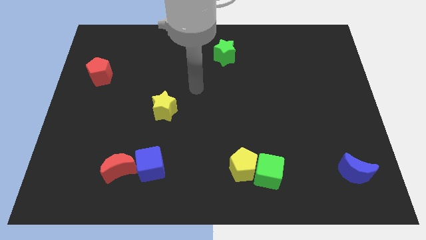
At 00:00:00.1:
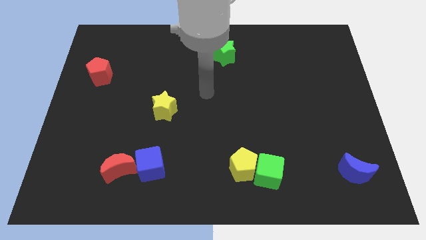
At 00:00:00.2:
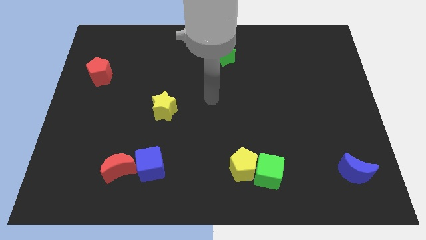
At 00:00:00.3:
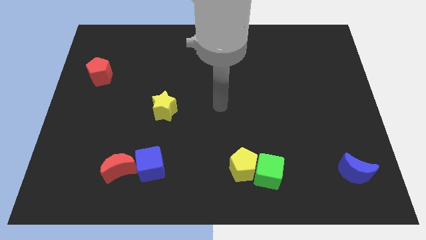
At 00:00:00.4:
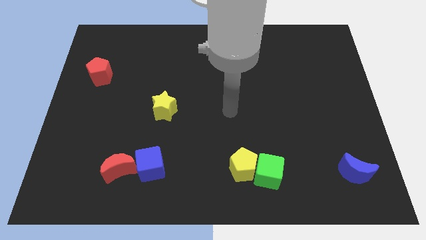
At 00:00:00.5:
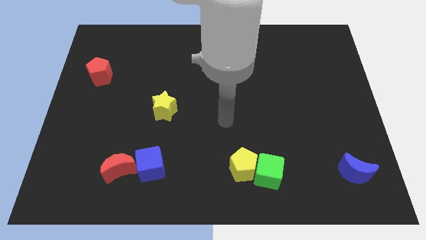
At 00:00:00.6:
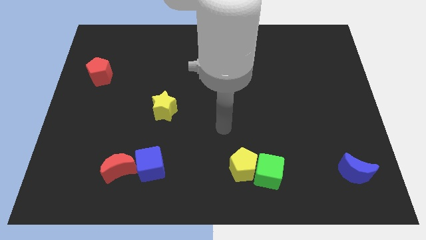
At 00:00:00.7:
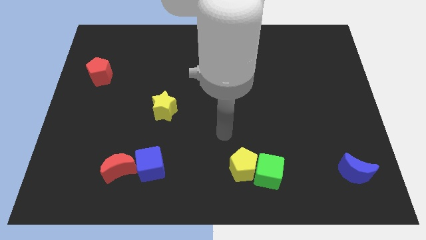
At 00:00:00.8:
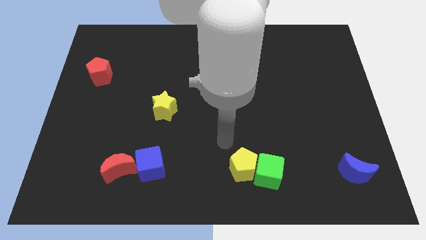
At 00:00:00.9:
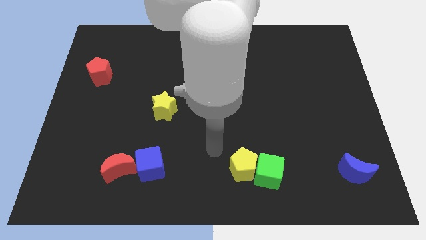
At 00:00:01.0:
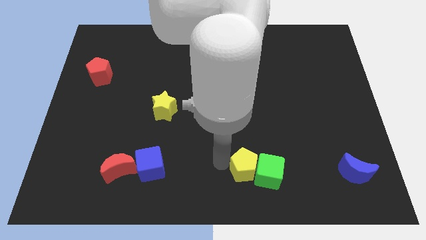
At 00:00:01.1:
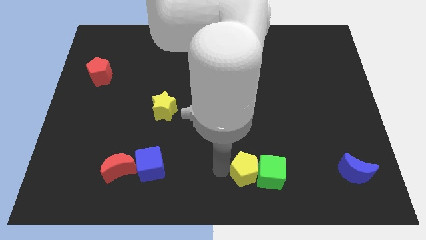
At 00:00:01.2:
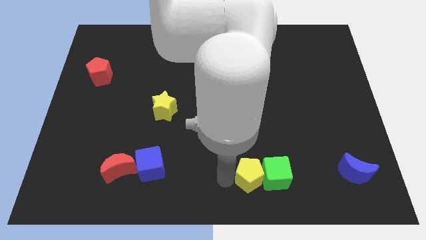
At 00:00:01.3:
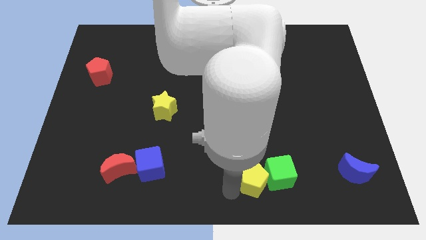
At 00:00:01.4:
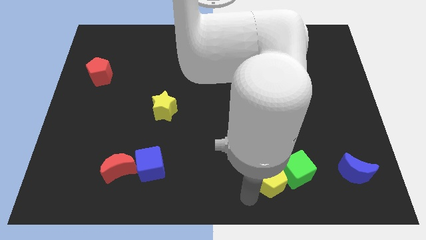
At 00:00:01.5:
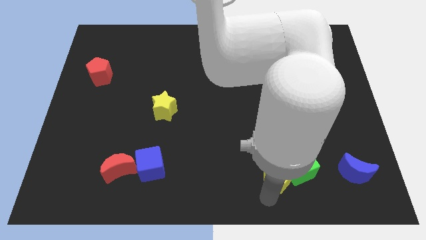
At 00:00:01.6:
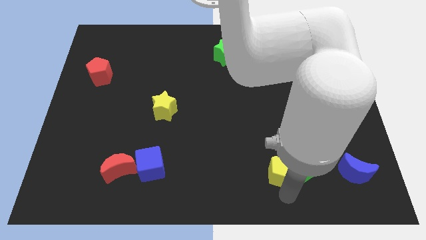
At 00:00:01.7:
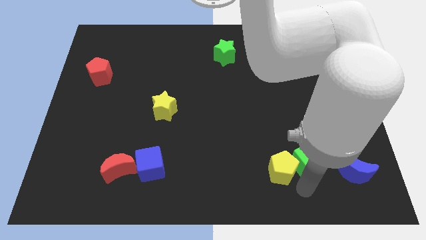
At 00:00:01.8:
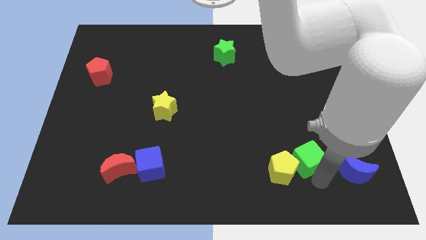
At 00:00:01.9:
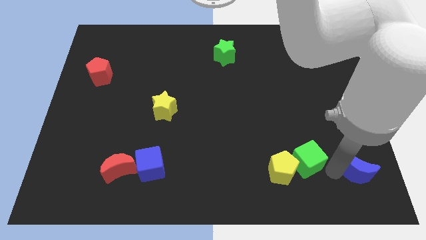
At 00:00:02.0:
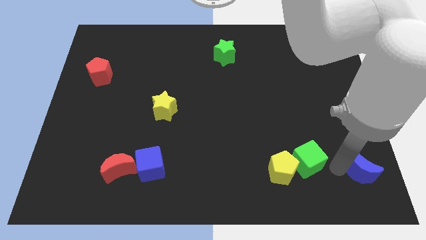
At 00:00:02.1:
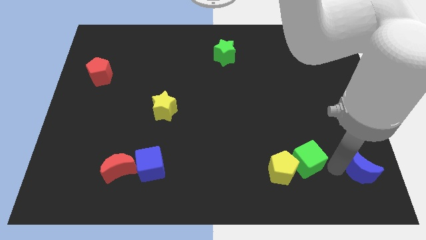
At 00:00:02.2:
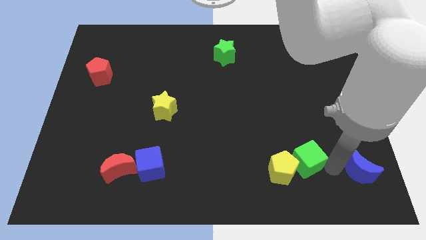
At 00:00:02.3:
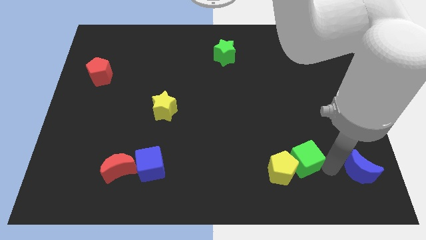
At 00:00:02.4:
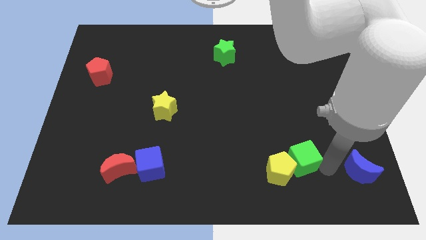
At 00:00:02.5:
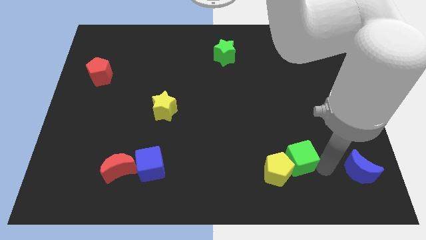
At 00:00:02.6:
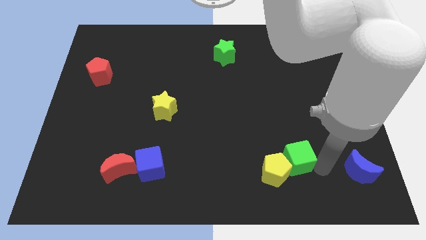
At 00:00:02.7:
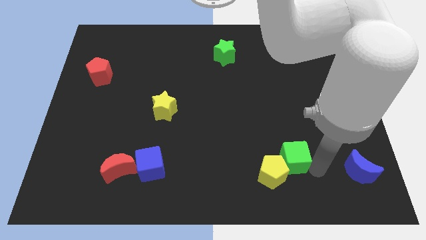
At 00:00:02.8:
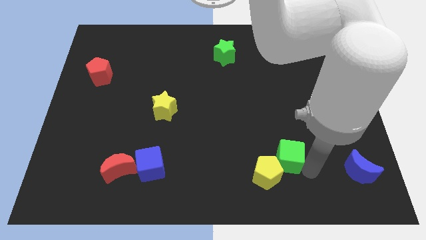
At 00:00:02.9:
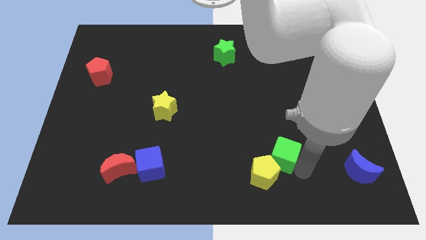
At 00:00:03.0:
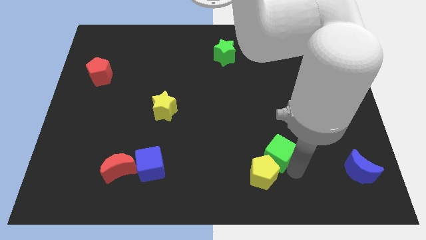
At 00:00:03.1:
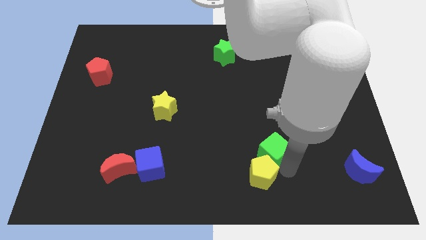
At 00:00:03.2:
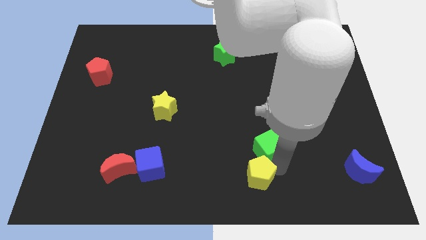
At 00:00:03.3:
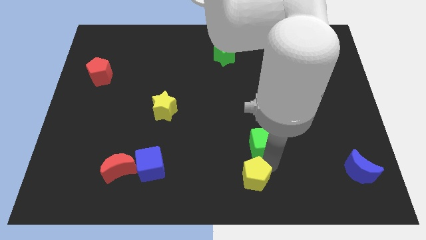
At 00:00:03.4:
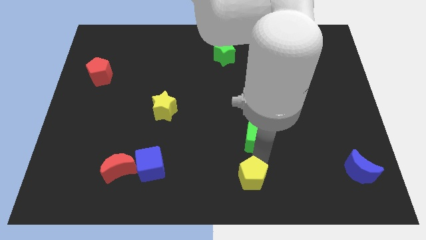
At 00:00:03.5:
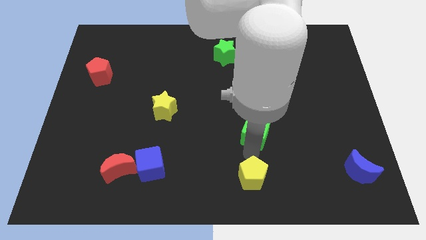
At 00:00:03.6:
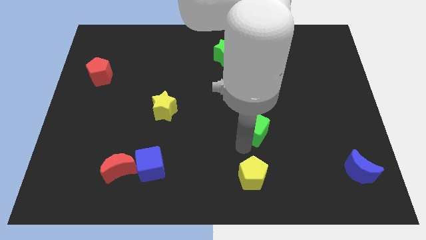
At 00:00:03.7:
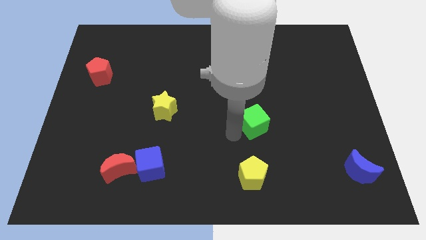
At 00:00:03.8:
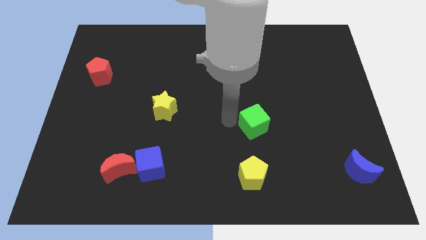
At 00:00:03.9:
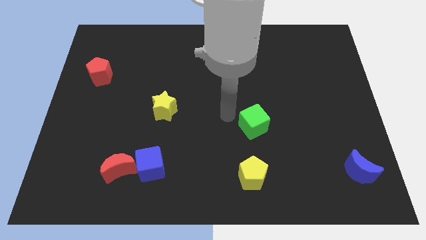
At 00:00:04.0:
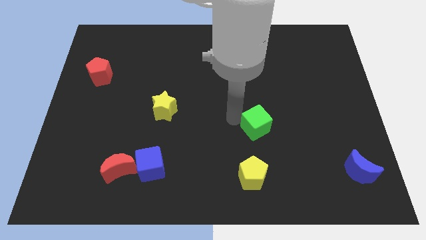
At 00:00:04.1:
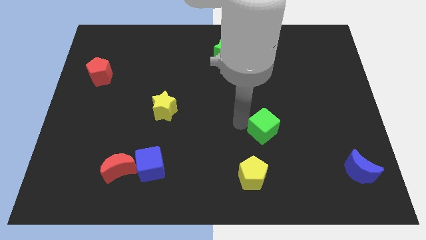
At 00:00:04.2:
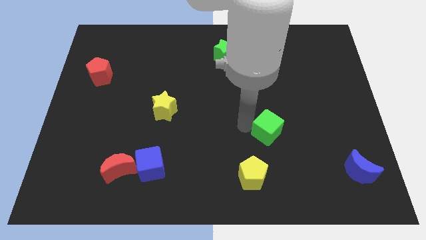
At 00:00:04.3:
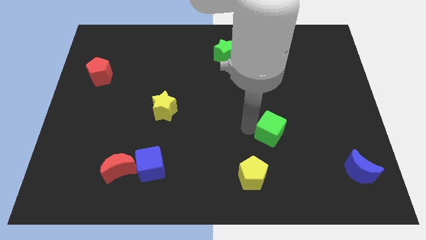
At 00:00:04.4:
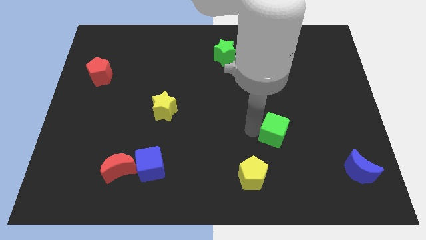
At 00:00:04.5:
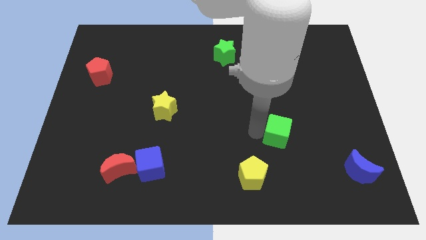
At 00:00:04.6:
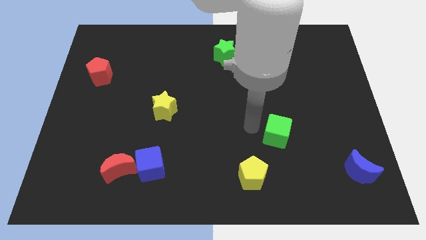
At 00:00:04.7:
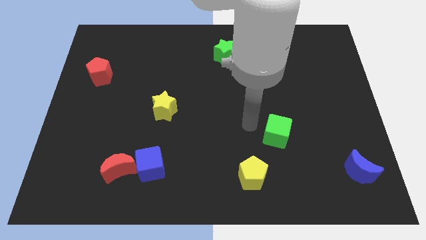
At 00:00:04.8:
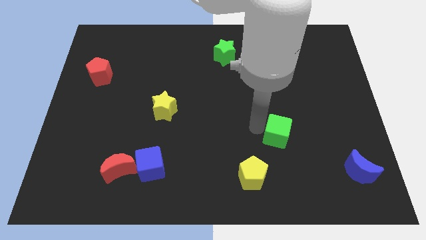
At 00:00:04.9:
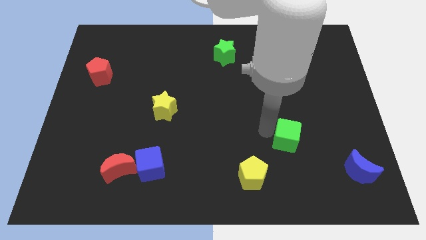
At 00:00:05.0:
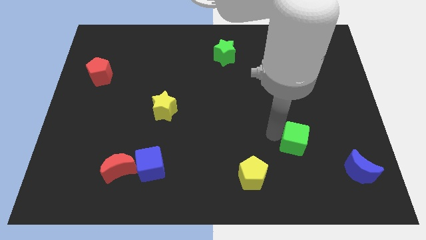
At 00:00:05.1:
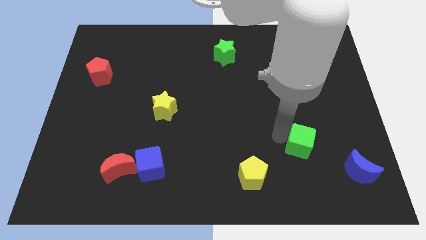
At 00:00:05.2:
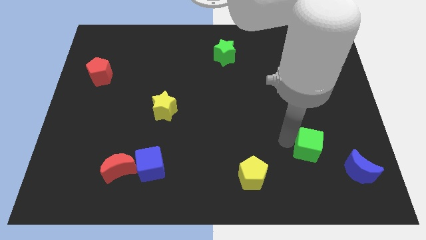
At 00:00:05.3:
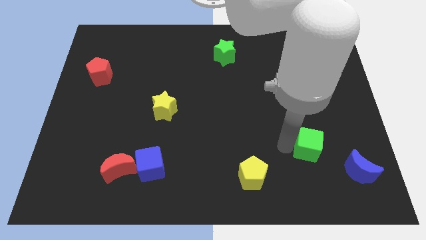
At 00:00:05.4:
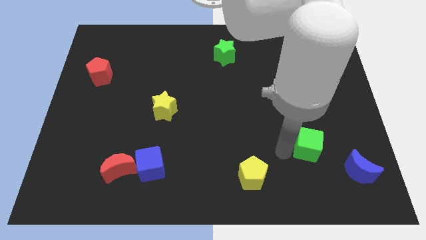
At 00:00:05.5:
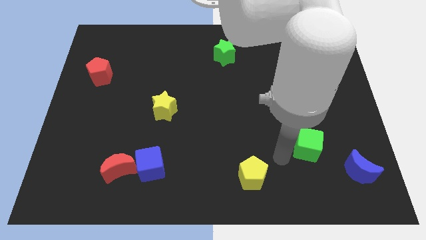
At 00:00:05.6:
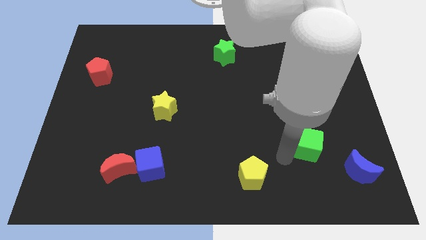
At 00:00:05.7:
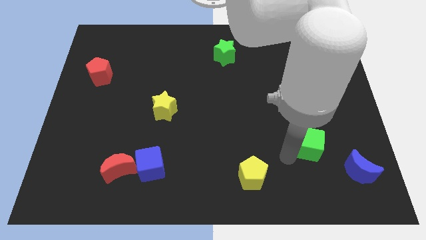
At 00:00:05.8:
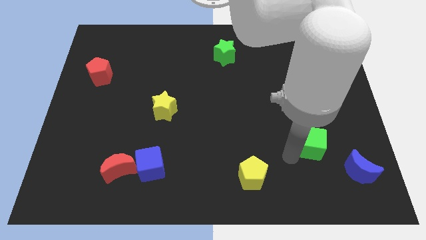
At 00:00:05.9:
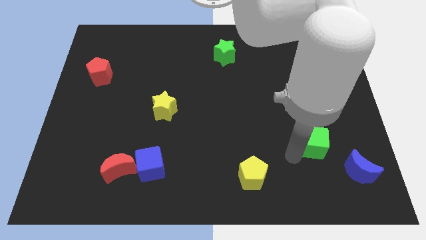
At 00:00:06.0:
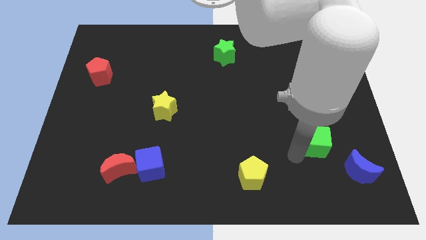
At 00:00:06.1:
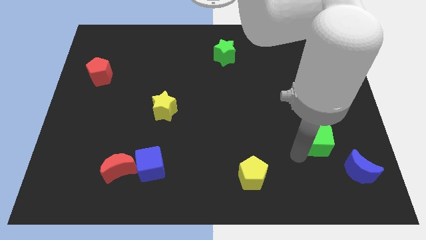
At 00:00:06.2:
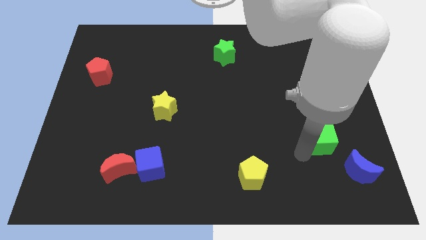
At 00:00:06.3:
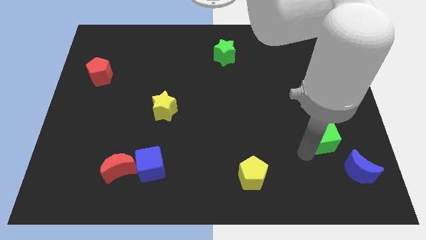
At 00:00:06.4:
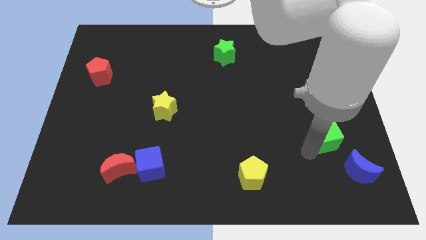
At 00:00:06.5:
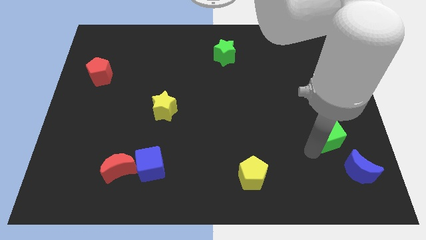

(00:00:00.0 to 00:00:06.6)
slide the green cube to the top side of the blue moon

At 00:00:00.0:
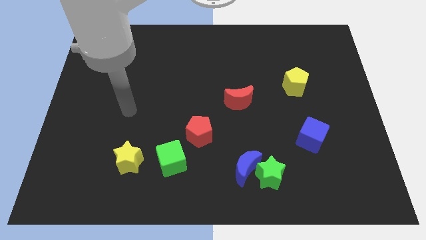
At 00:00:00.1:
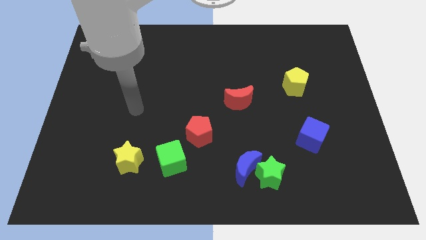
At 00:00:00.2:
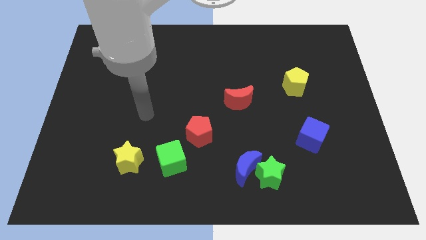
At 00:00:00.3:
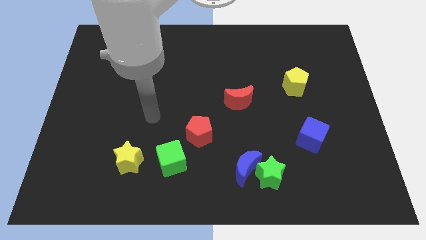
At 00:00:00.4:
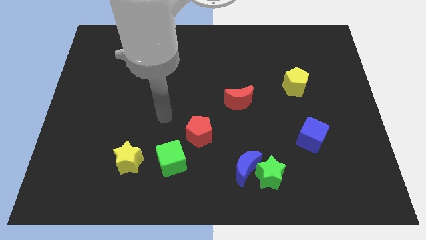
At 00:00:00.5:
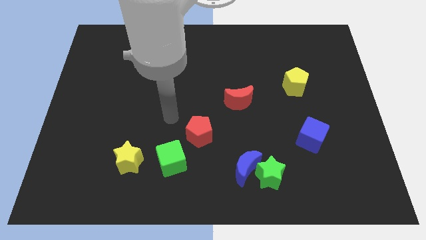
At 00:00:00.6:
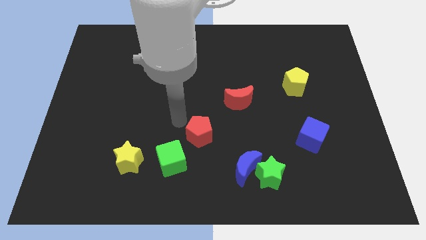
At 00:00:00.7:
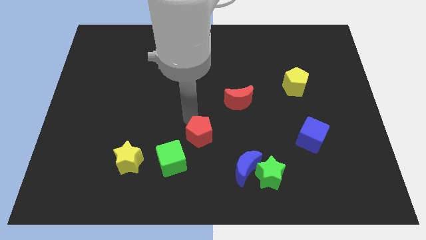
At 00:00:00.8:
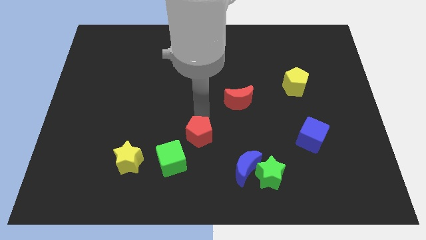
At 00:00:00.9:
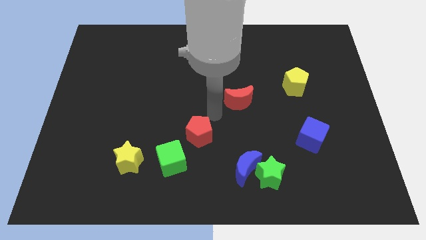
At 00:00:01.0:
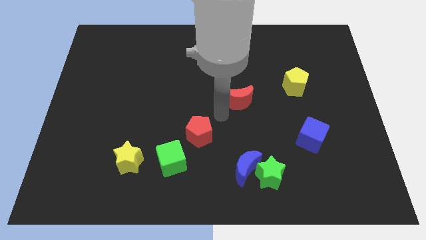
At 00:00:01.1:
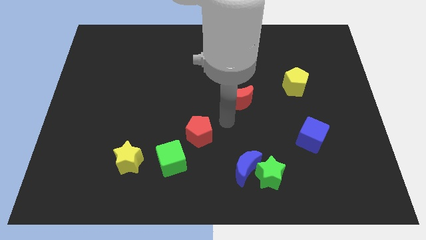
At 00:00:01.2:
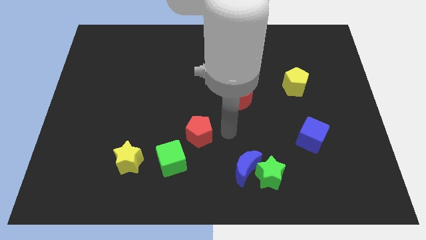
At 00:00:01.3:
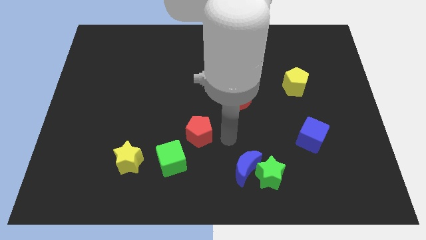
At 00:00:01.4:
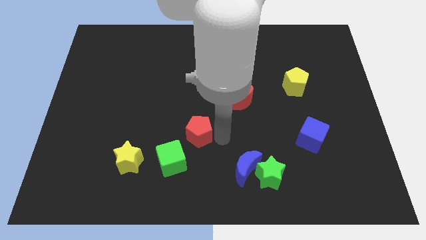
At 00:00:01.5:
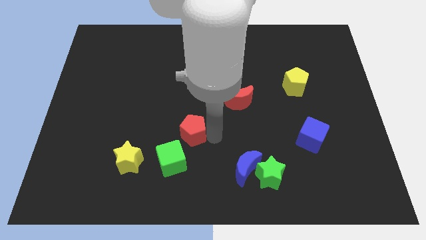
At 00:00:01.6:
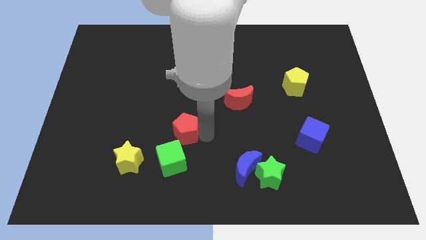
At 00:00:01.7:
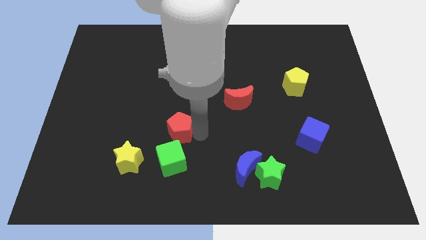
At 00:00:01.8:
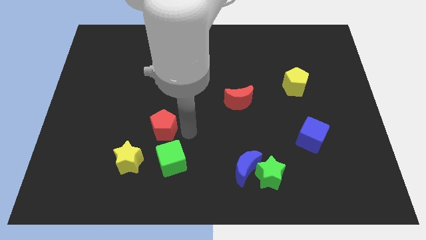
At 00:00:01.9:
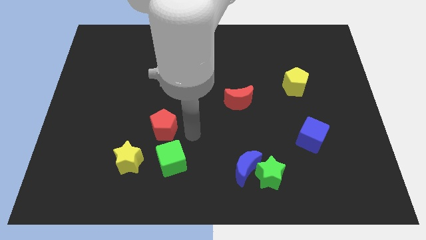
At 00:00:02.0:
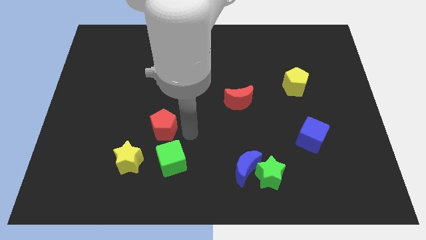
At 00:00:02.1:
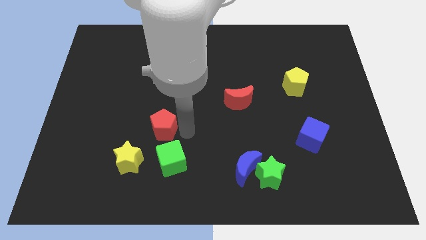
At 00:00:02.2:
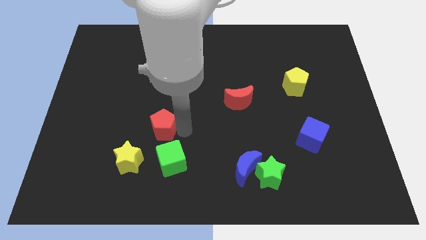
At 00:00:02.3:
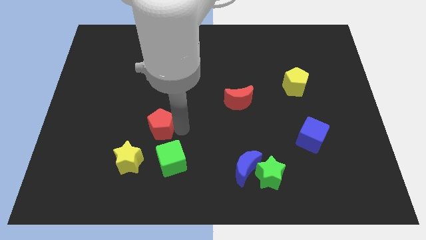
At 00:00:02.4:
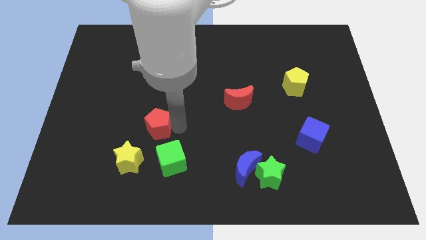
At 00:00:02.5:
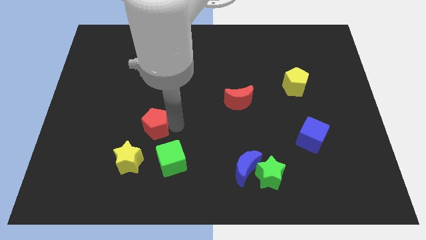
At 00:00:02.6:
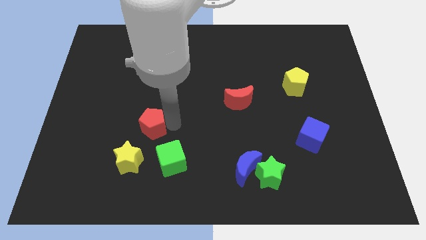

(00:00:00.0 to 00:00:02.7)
push the red pentagon to the top of the yellow star
